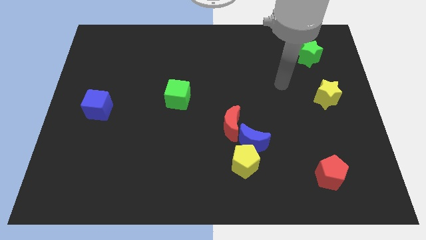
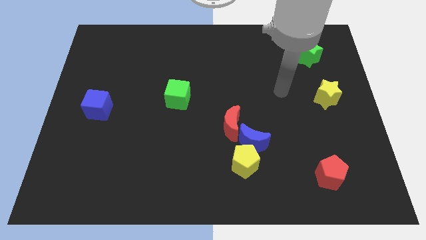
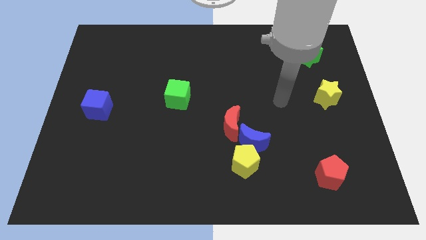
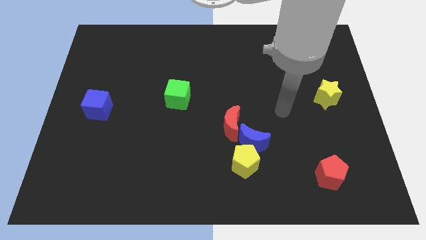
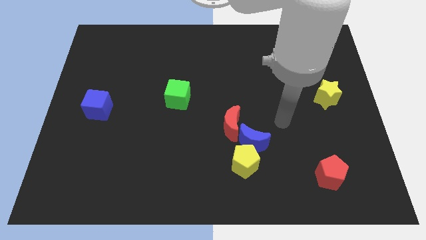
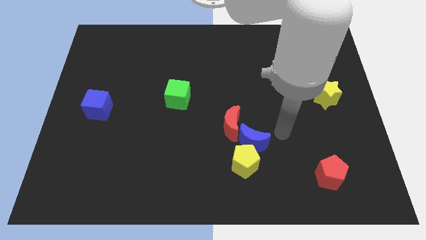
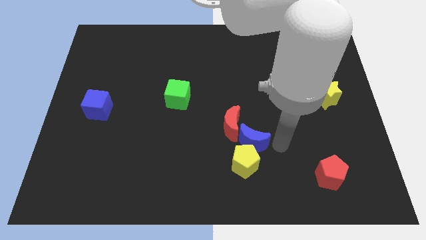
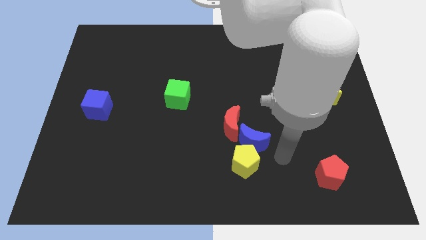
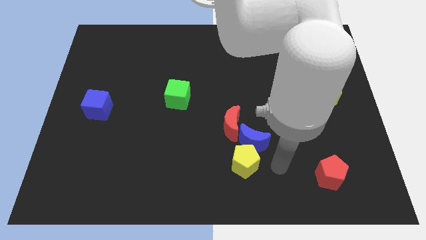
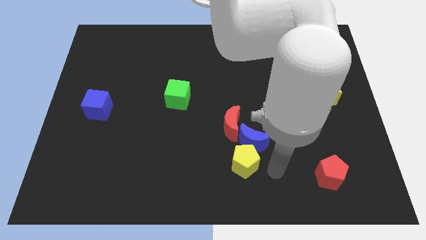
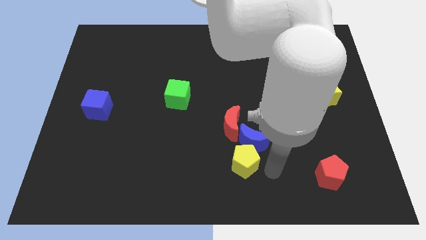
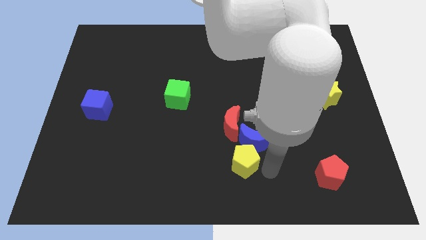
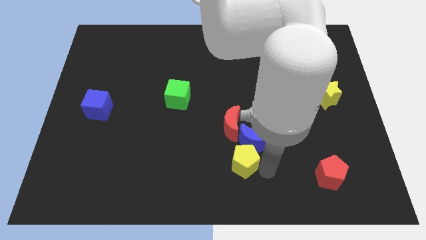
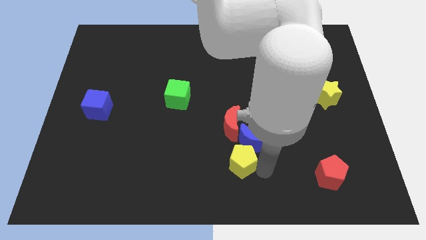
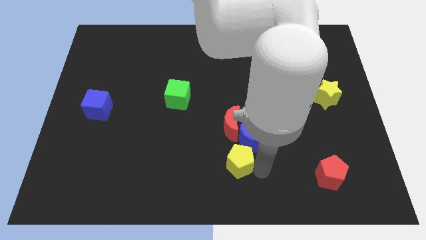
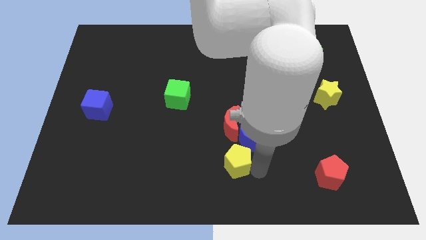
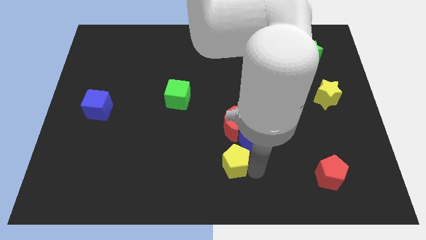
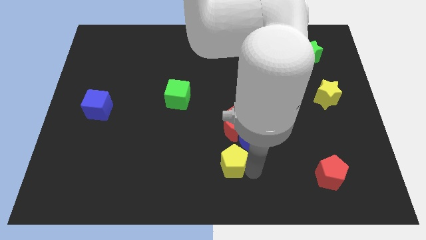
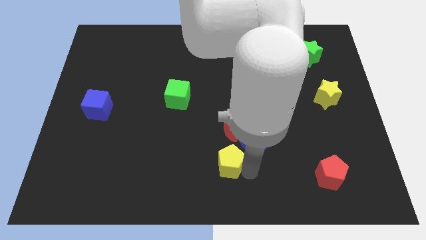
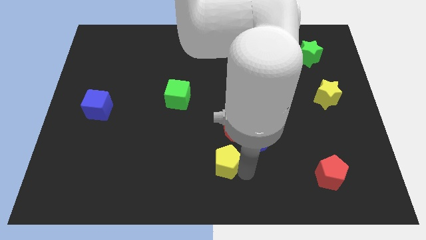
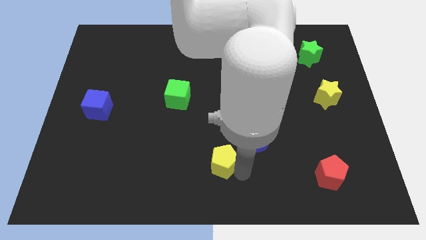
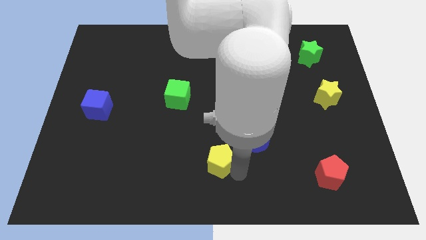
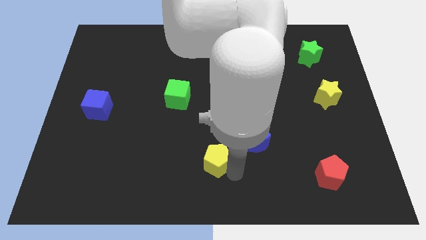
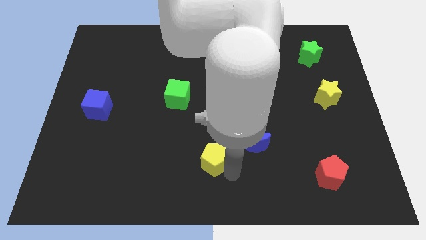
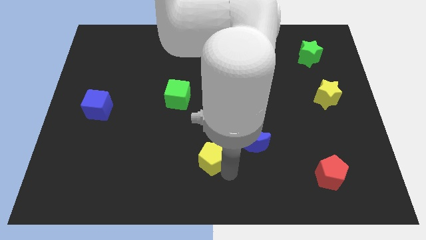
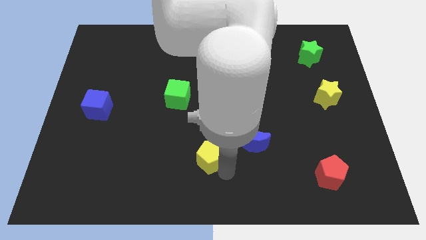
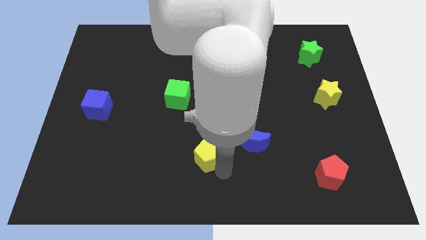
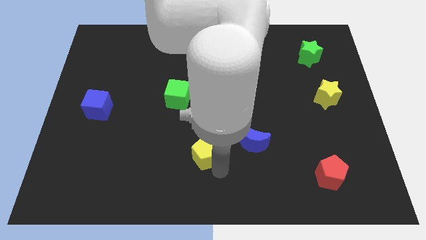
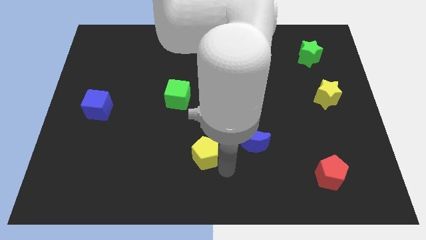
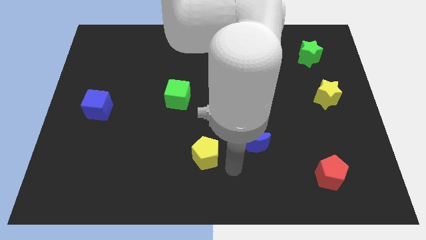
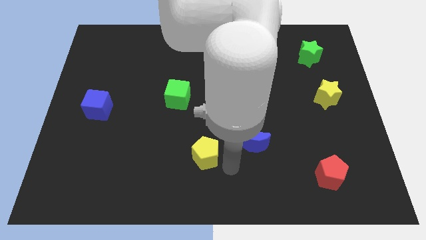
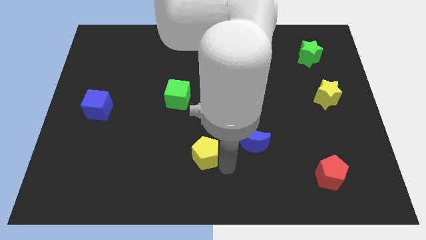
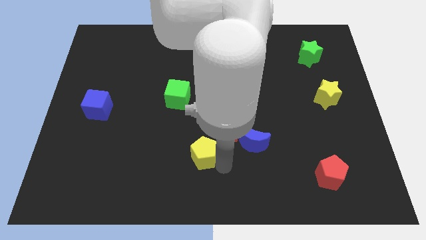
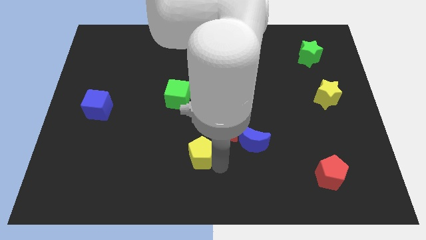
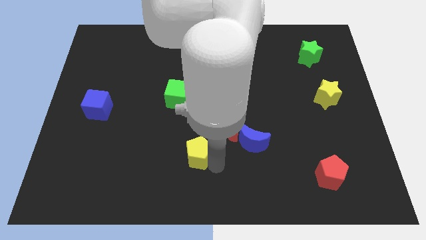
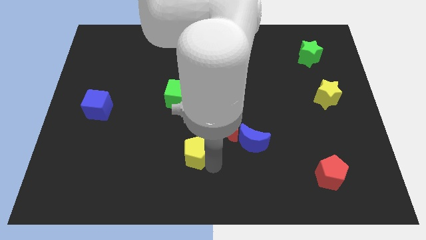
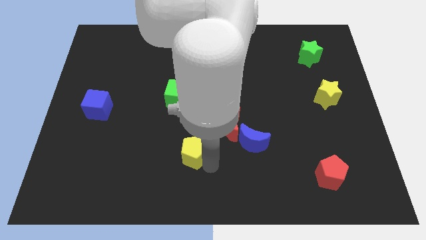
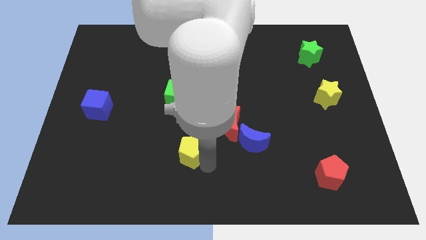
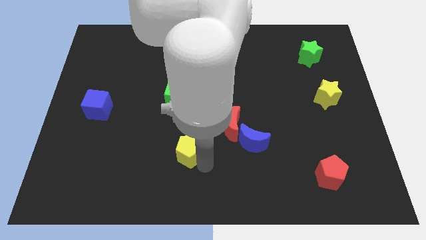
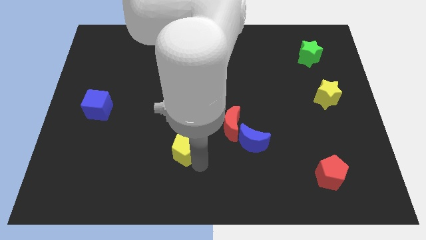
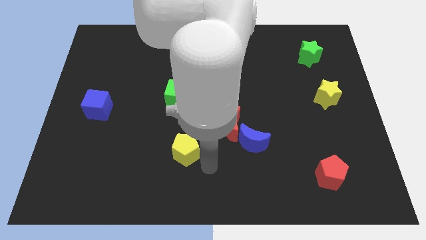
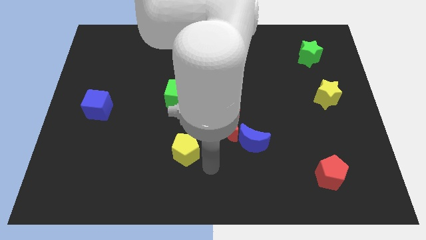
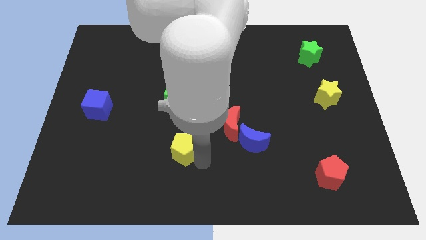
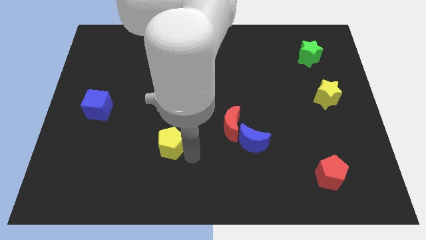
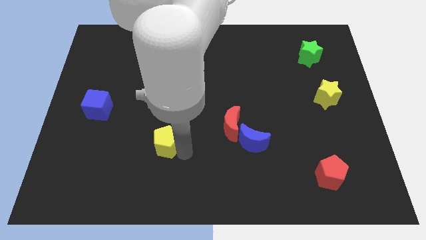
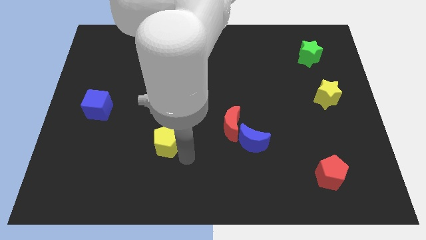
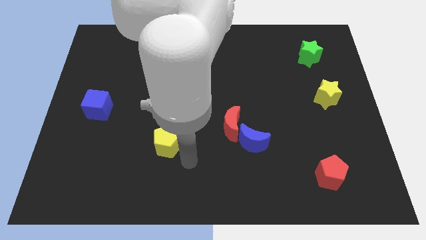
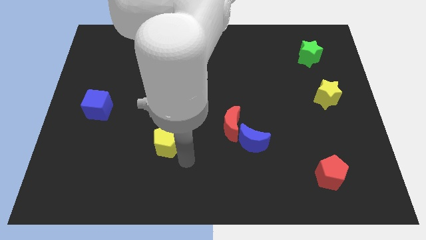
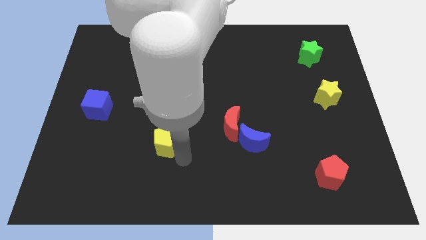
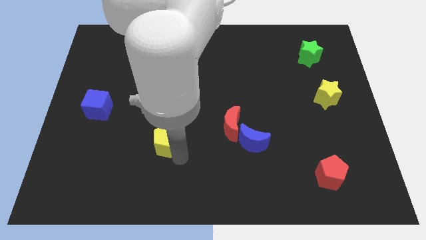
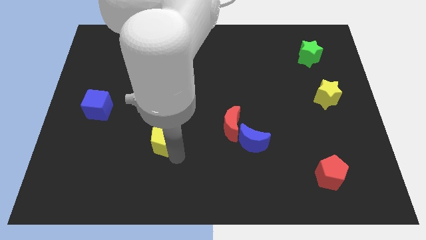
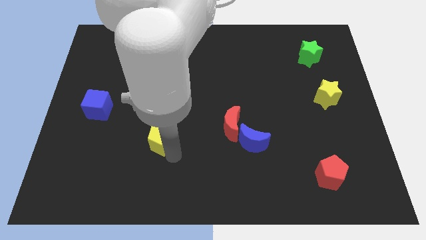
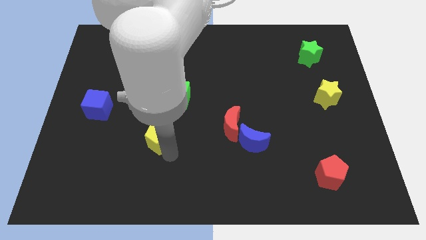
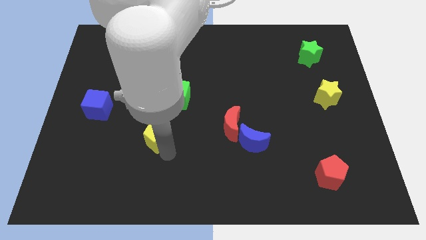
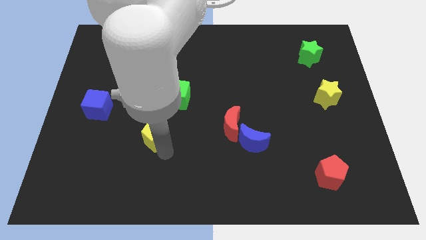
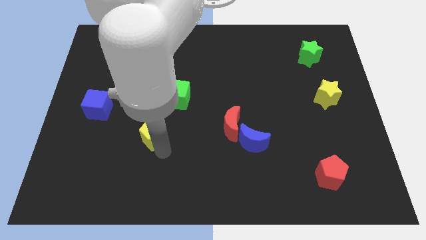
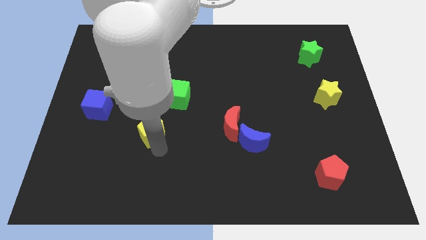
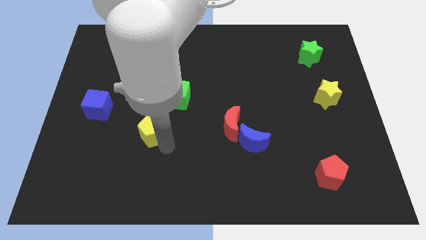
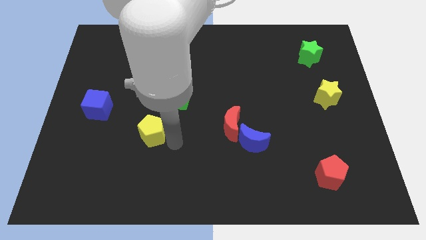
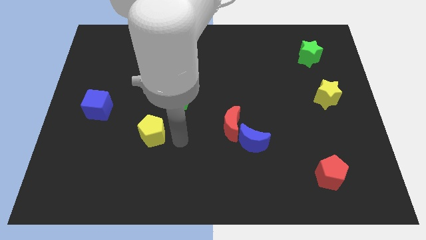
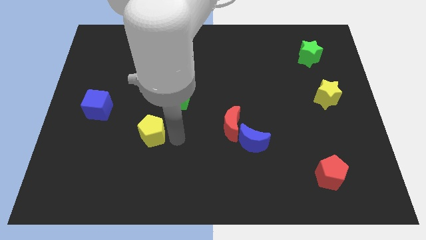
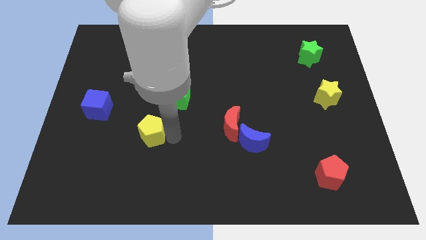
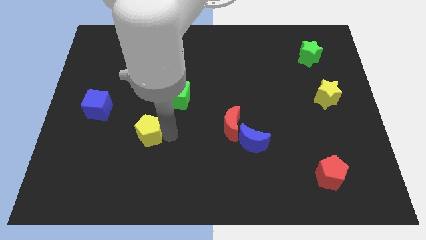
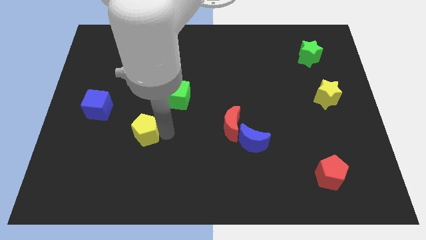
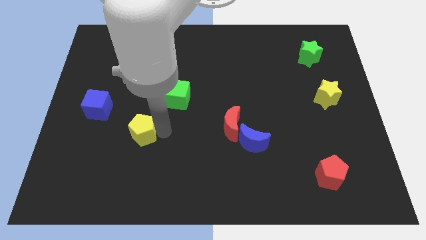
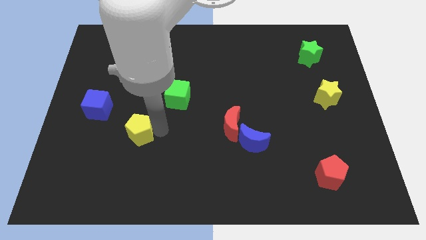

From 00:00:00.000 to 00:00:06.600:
move the yellow pentagon to the bottom right of the blue cube

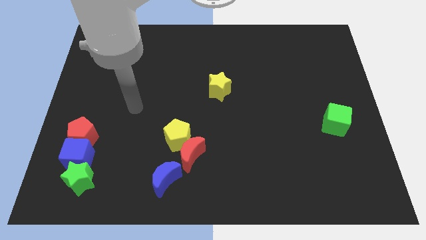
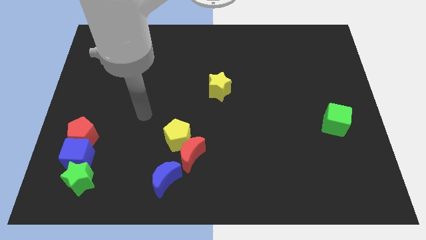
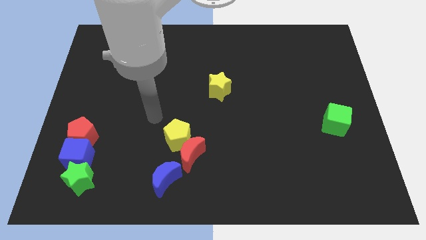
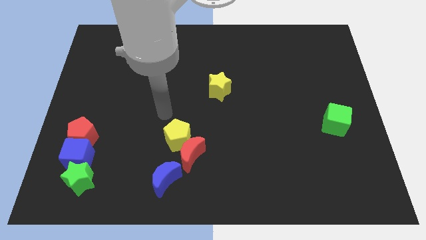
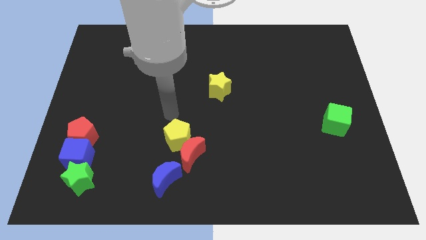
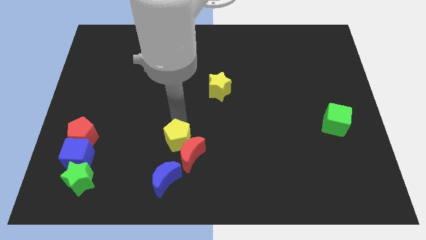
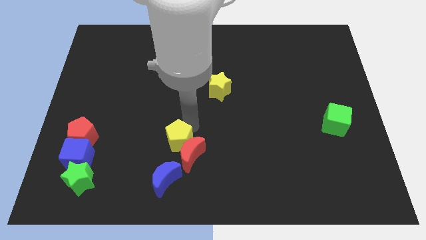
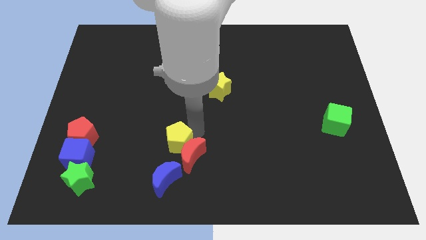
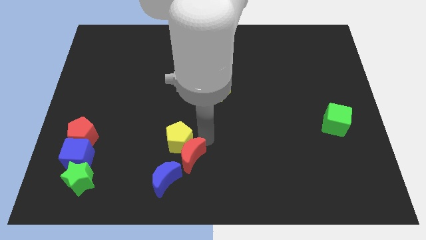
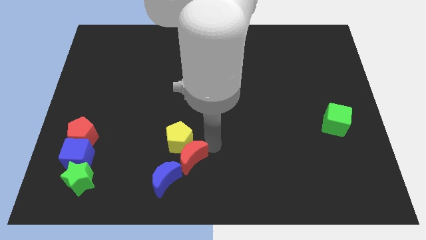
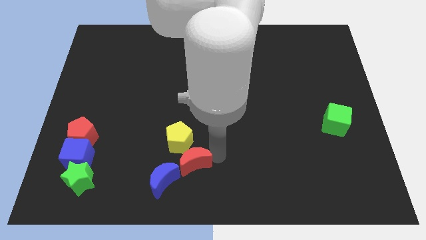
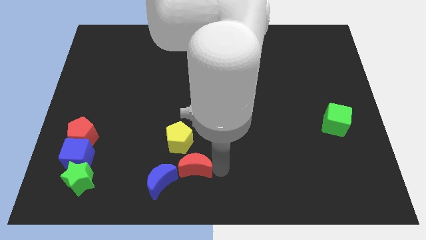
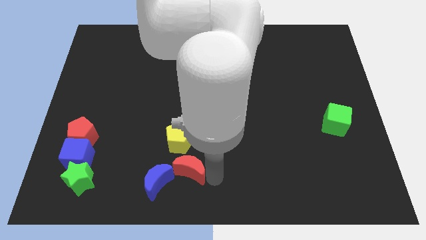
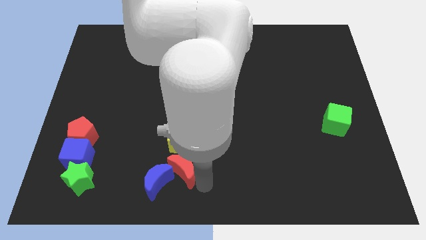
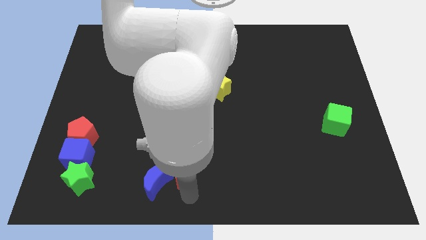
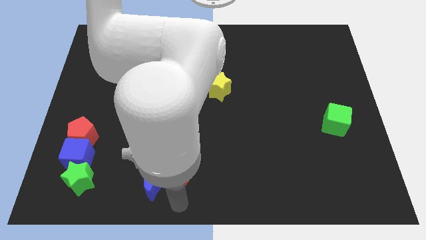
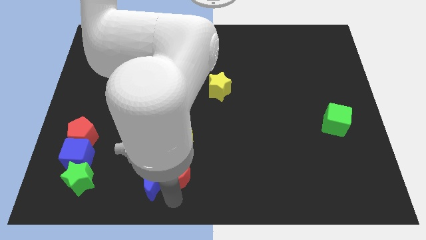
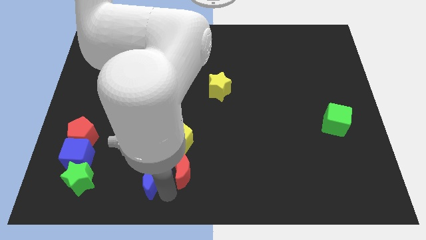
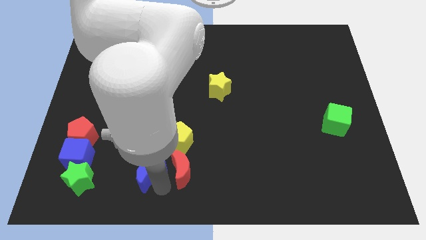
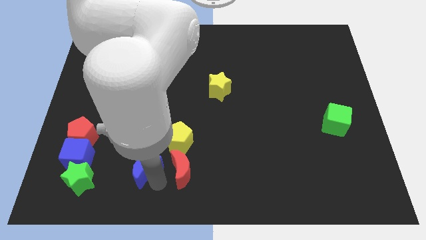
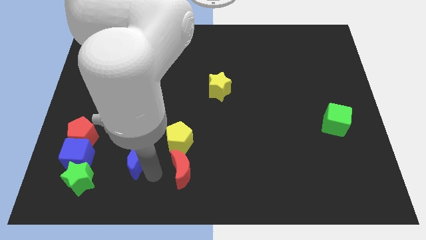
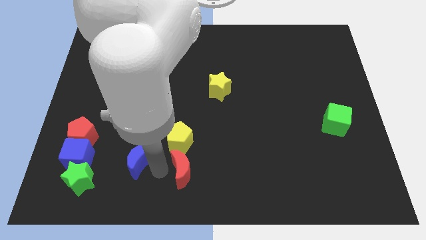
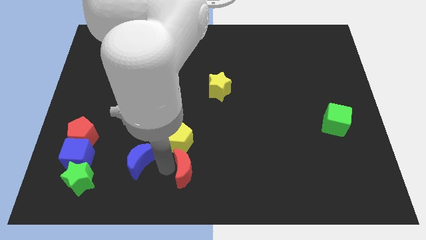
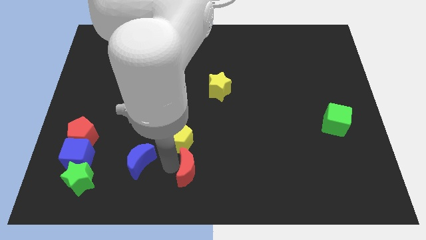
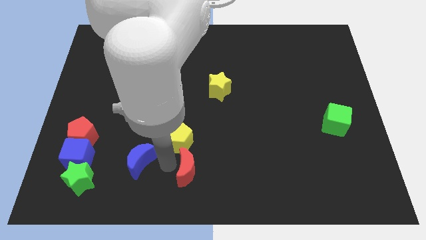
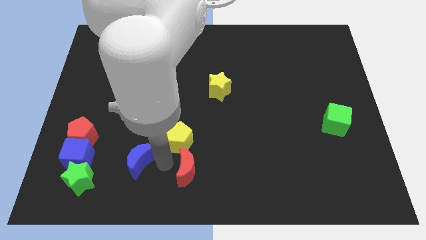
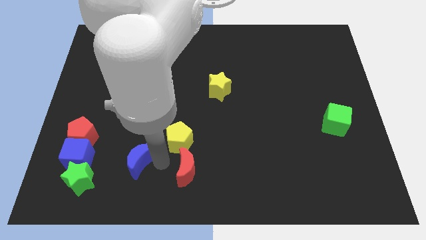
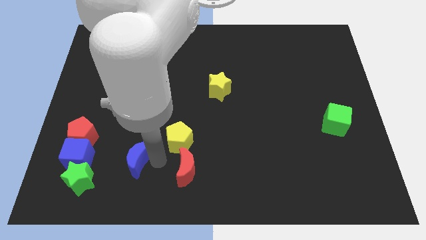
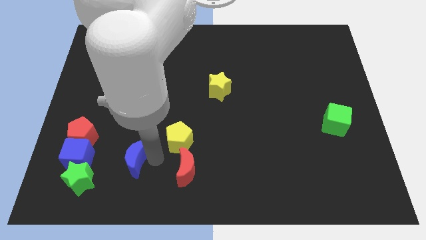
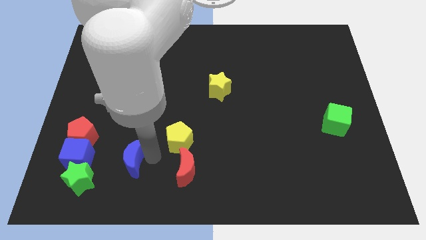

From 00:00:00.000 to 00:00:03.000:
move the blue moon to the top right of the green star
